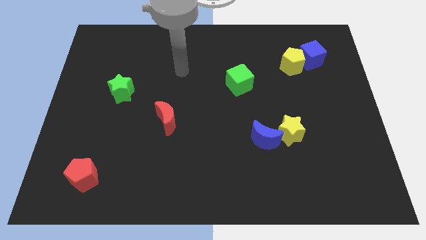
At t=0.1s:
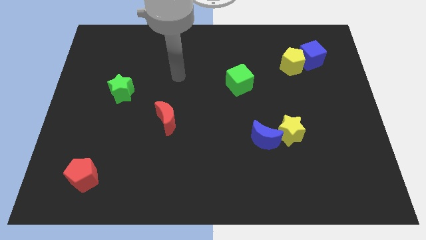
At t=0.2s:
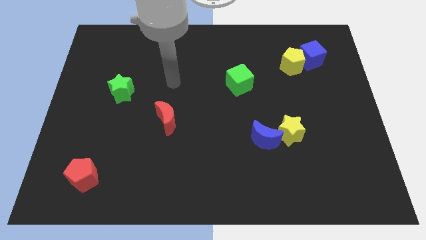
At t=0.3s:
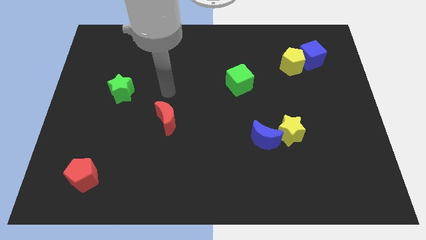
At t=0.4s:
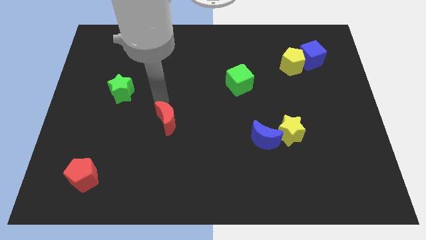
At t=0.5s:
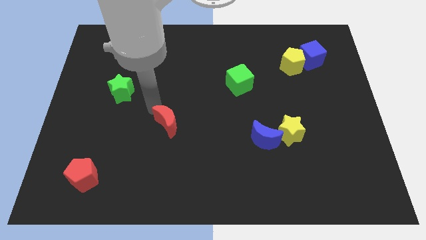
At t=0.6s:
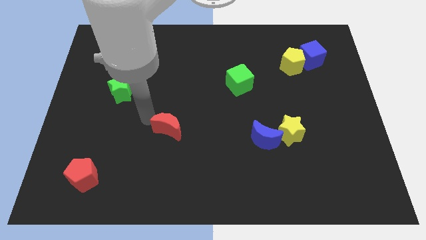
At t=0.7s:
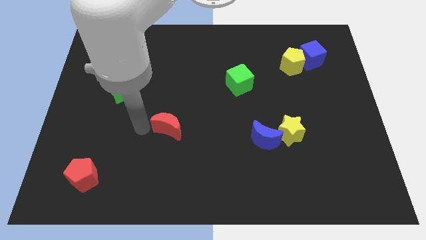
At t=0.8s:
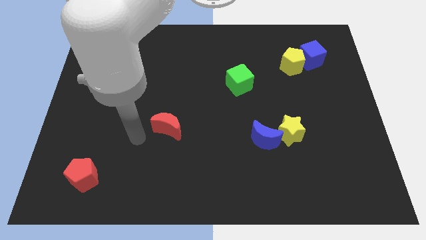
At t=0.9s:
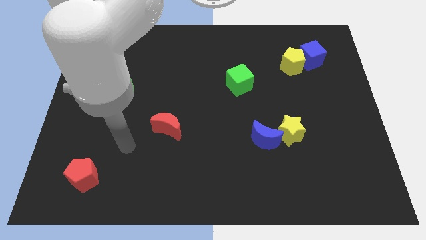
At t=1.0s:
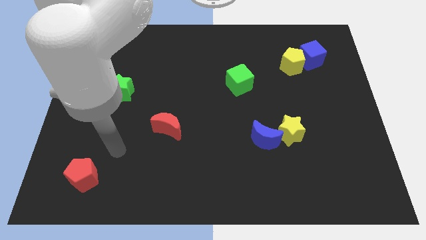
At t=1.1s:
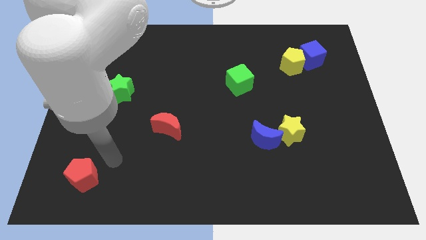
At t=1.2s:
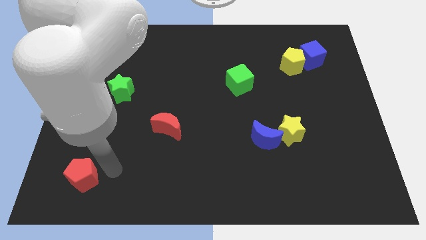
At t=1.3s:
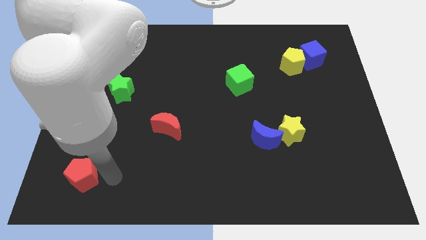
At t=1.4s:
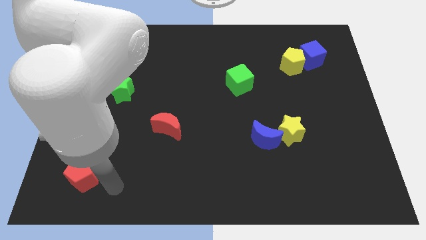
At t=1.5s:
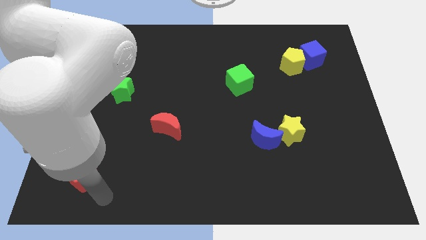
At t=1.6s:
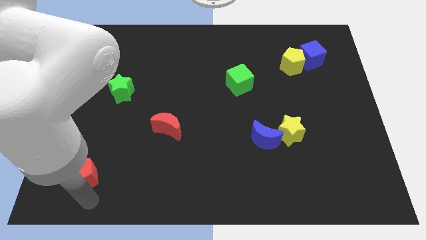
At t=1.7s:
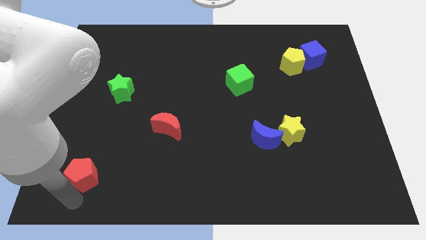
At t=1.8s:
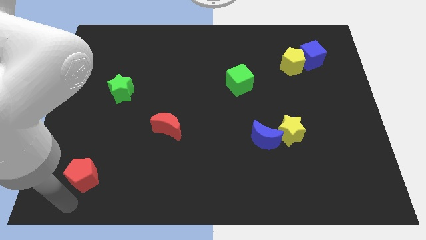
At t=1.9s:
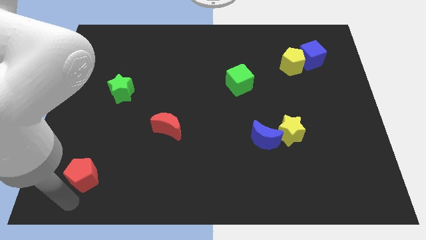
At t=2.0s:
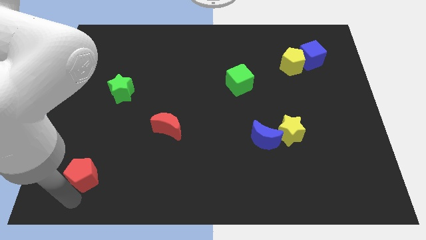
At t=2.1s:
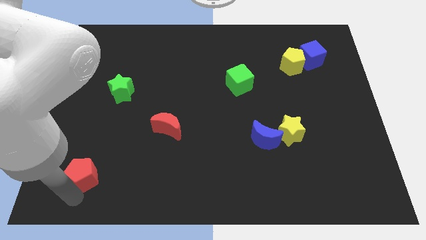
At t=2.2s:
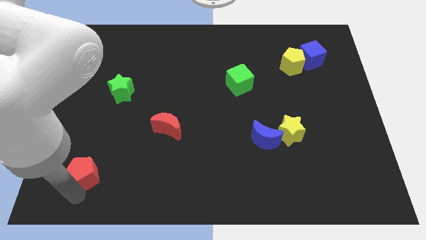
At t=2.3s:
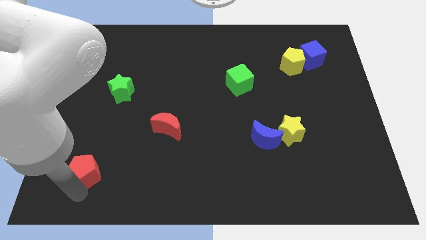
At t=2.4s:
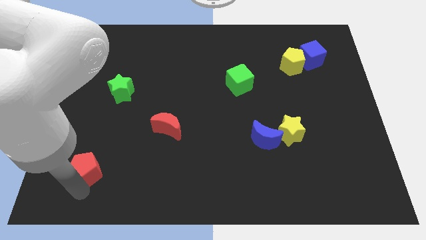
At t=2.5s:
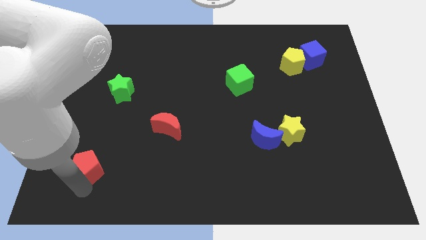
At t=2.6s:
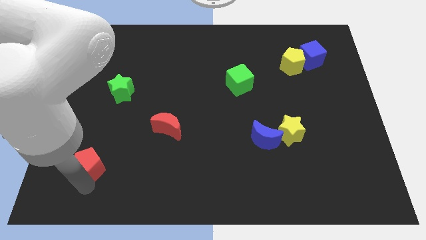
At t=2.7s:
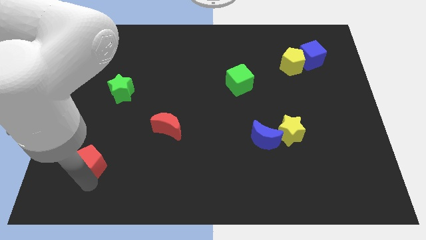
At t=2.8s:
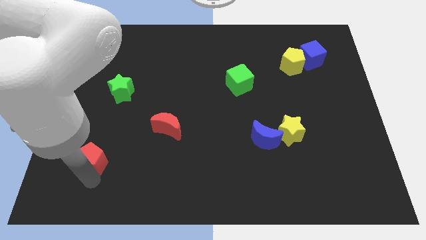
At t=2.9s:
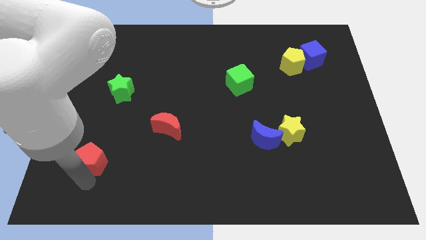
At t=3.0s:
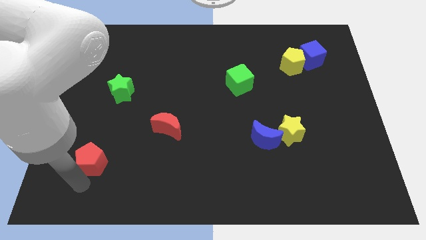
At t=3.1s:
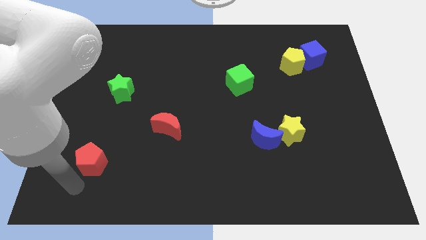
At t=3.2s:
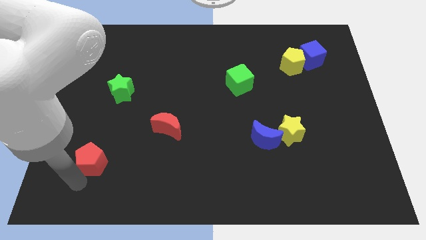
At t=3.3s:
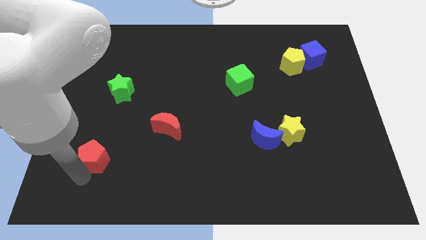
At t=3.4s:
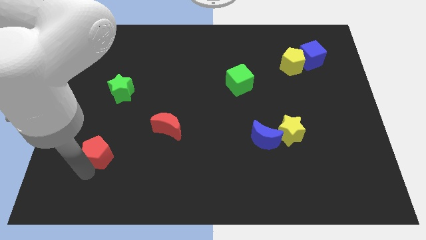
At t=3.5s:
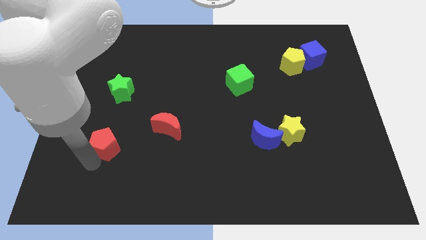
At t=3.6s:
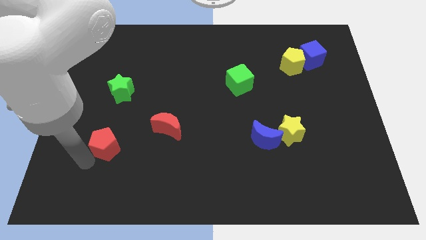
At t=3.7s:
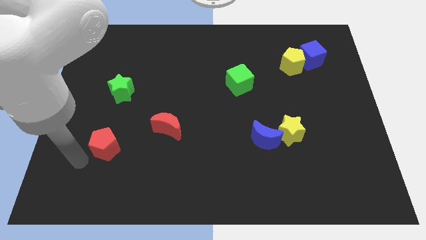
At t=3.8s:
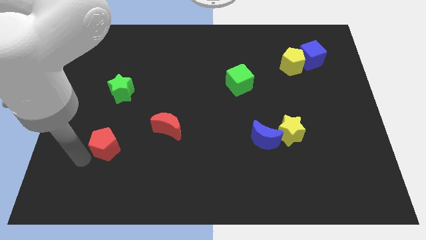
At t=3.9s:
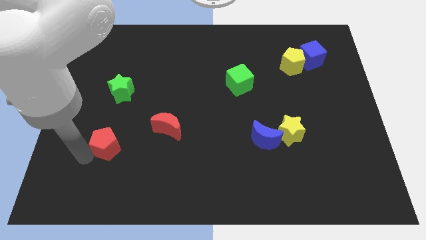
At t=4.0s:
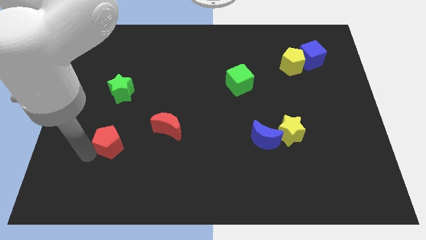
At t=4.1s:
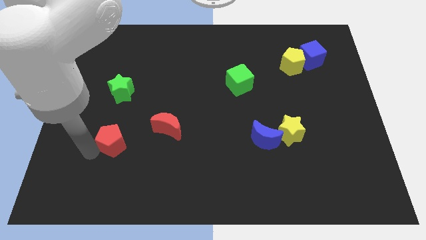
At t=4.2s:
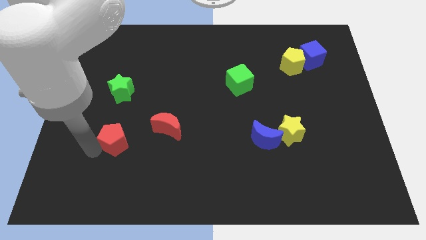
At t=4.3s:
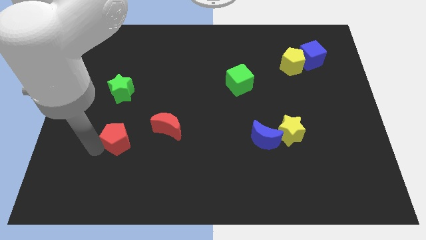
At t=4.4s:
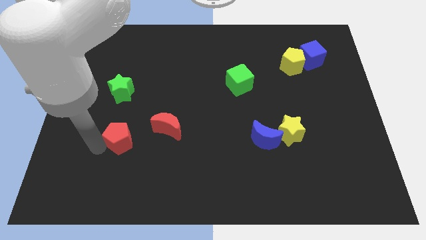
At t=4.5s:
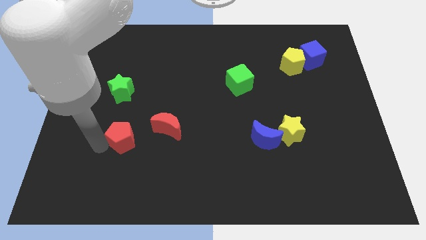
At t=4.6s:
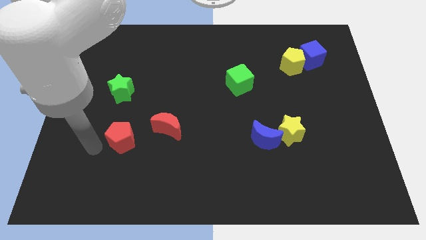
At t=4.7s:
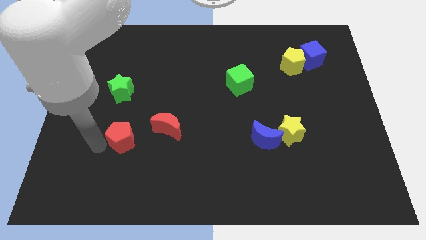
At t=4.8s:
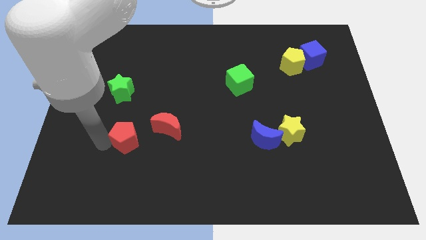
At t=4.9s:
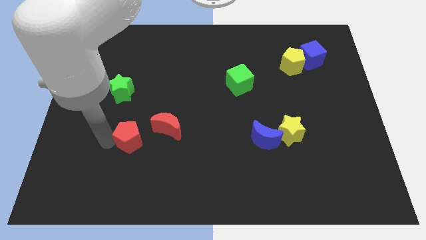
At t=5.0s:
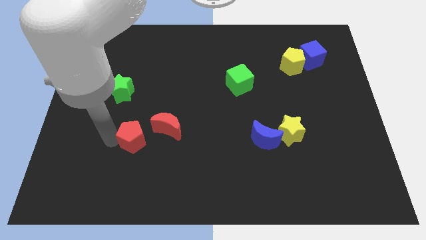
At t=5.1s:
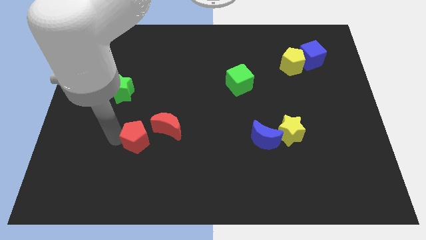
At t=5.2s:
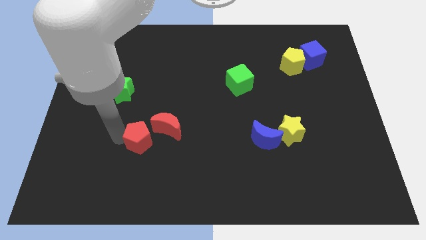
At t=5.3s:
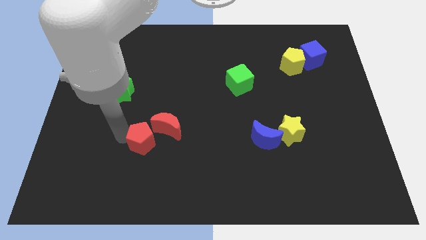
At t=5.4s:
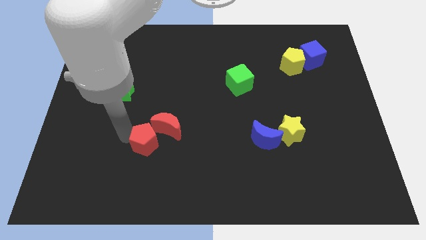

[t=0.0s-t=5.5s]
push the red pentagon towards the red moon

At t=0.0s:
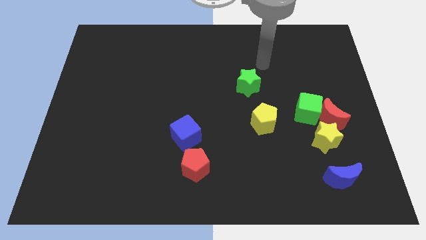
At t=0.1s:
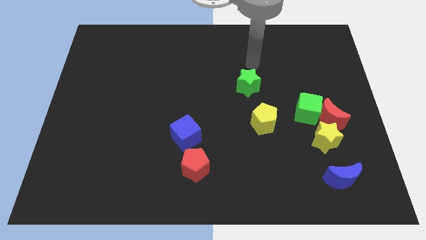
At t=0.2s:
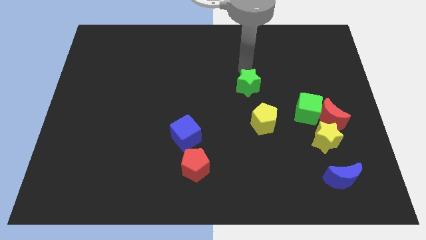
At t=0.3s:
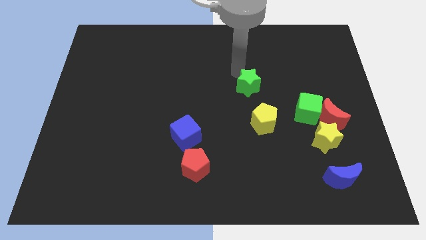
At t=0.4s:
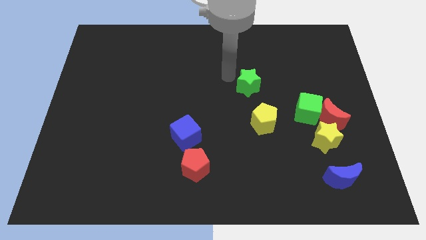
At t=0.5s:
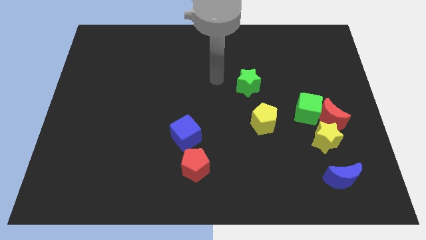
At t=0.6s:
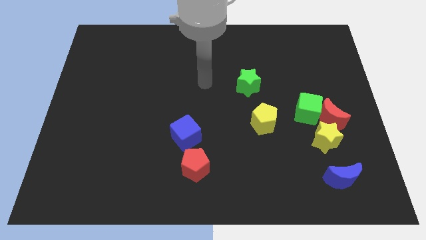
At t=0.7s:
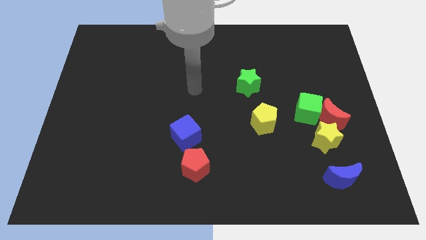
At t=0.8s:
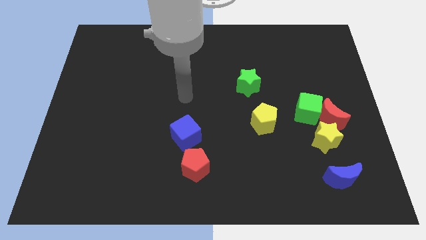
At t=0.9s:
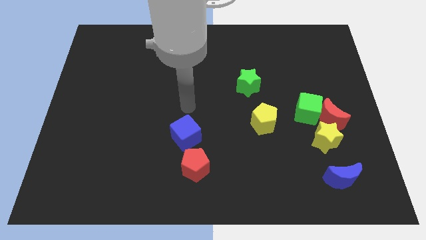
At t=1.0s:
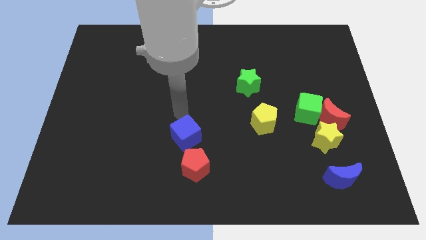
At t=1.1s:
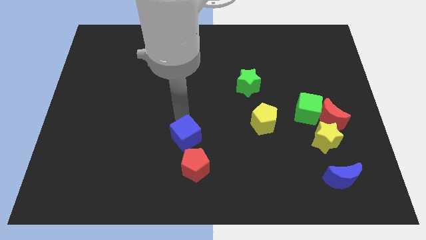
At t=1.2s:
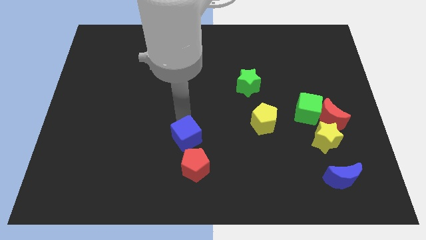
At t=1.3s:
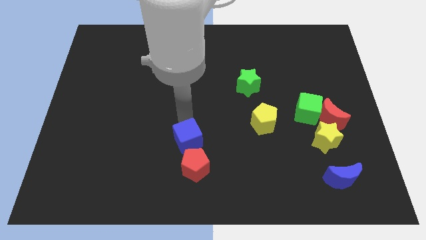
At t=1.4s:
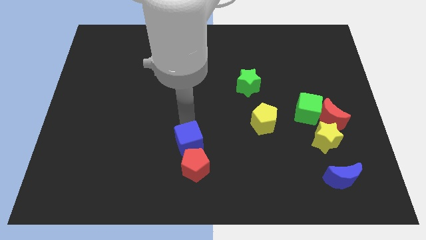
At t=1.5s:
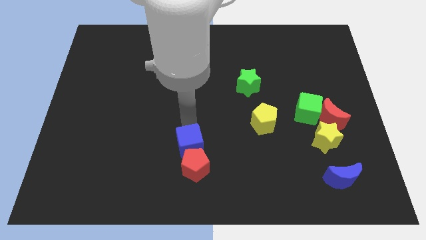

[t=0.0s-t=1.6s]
put the blue cube to the red pentagon
